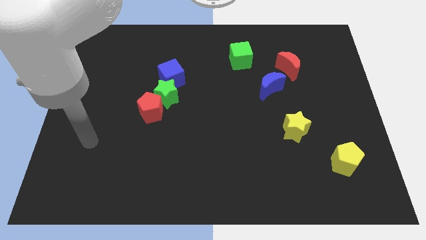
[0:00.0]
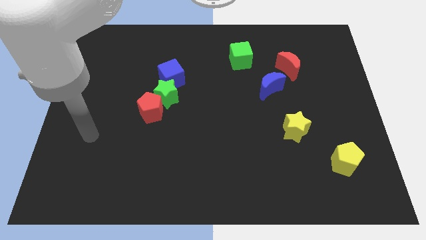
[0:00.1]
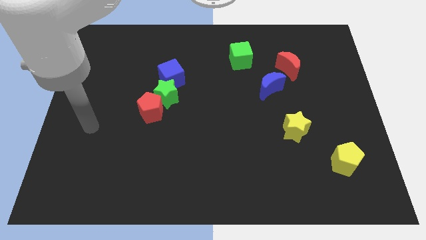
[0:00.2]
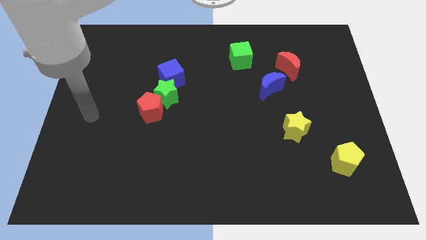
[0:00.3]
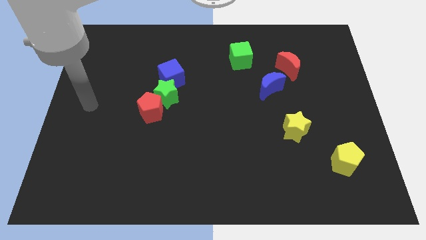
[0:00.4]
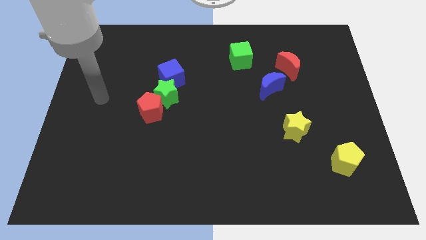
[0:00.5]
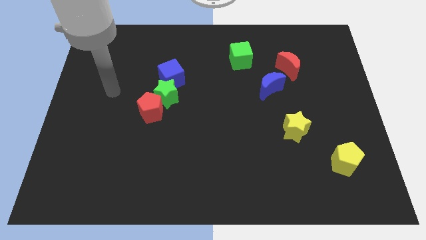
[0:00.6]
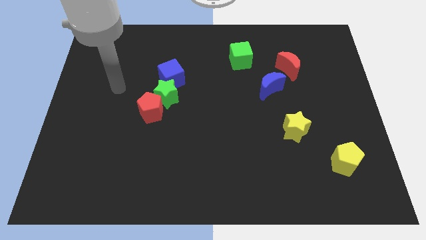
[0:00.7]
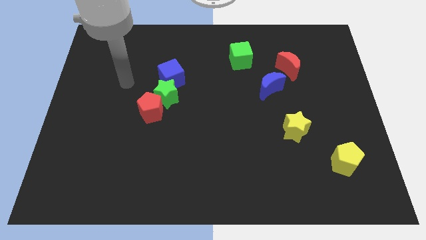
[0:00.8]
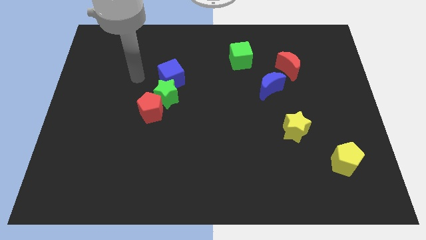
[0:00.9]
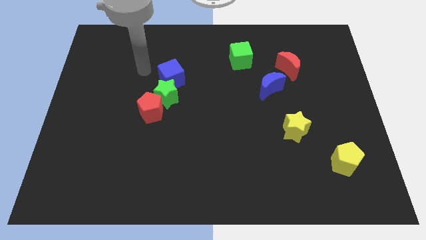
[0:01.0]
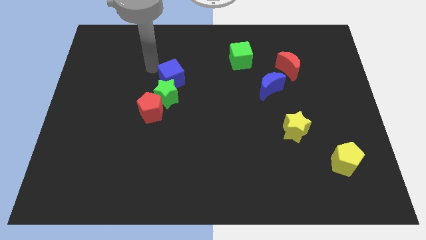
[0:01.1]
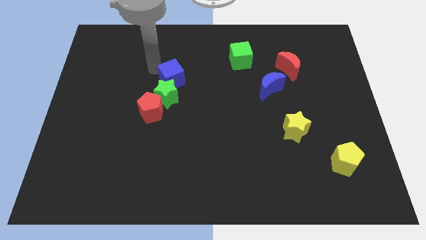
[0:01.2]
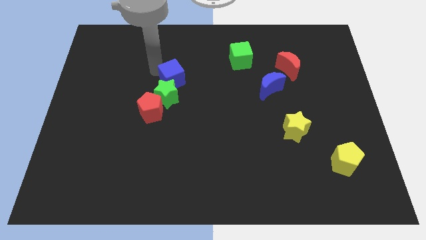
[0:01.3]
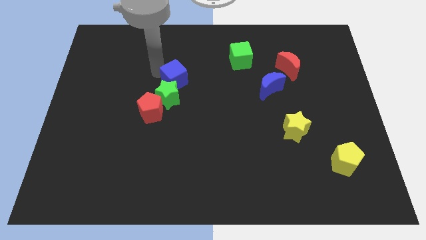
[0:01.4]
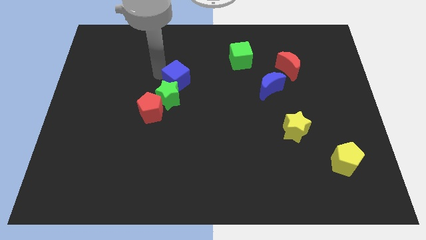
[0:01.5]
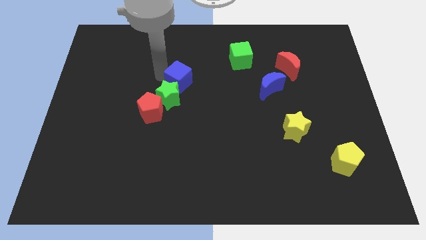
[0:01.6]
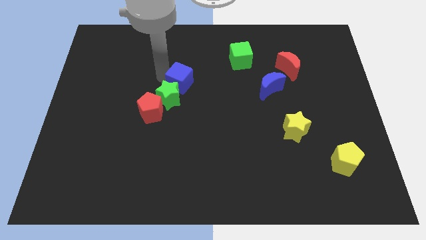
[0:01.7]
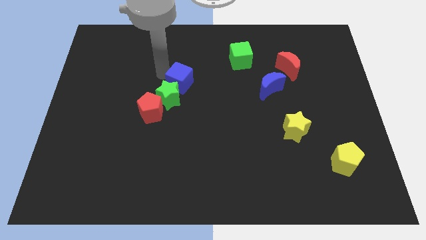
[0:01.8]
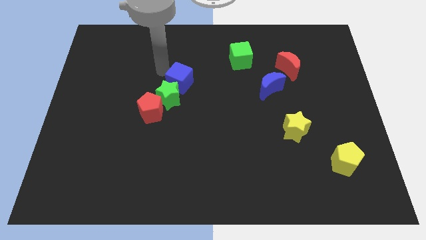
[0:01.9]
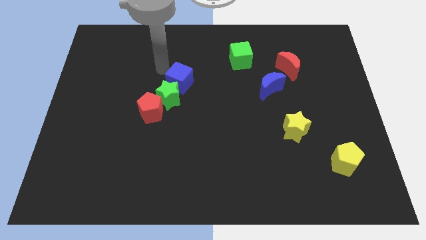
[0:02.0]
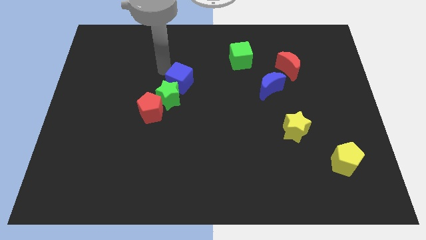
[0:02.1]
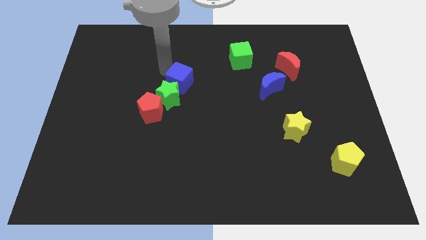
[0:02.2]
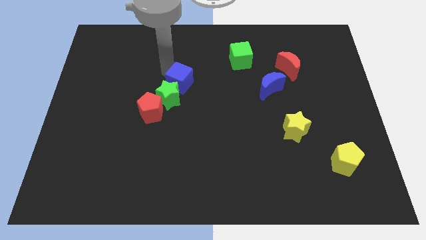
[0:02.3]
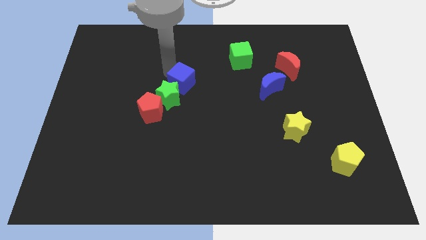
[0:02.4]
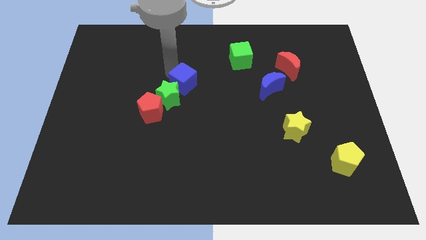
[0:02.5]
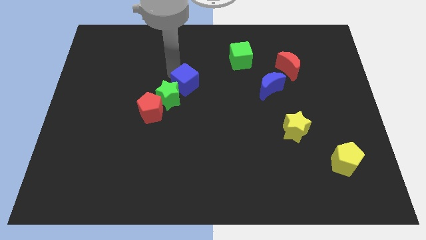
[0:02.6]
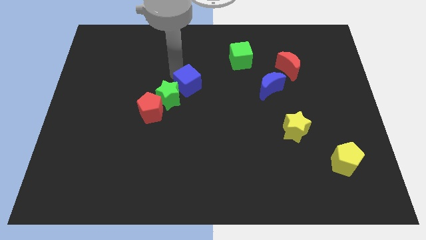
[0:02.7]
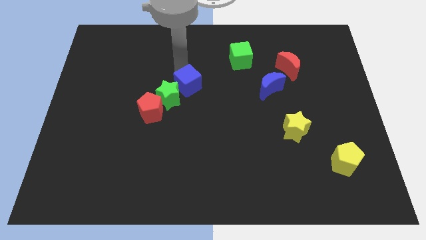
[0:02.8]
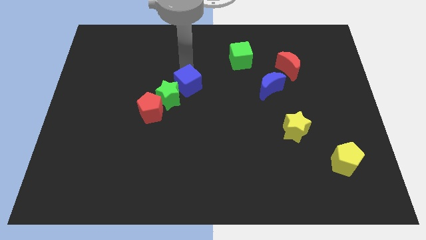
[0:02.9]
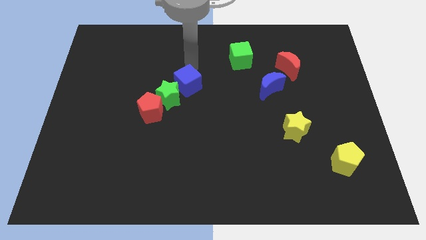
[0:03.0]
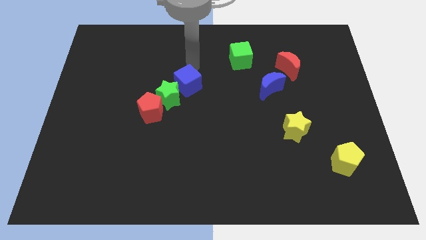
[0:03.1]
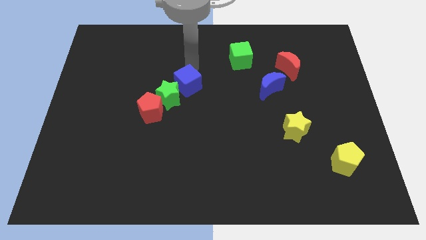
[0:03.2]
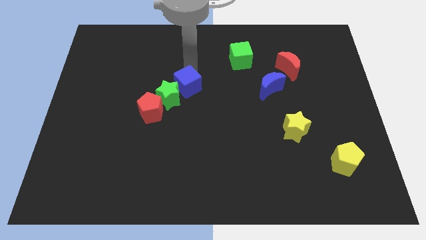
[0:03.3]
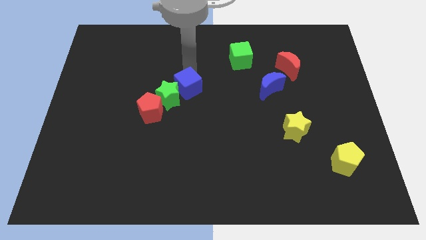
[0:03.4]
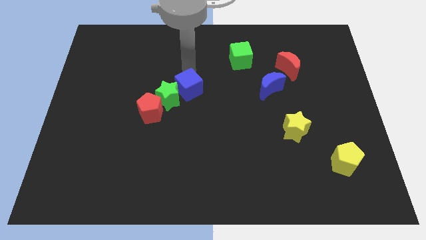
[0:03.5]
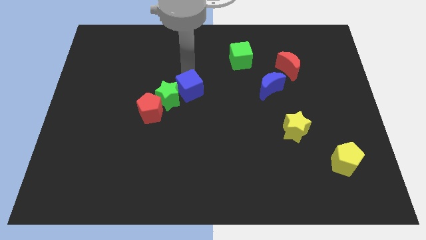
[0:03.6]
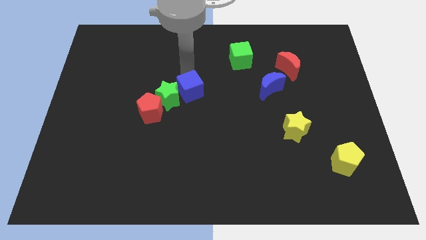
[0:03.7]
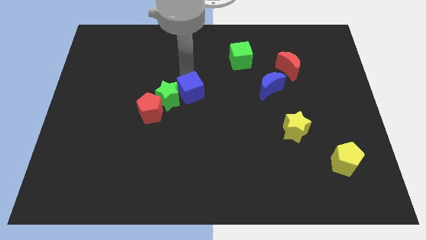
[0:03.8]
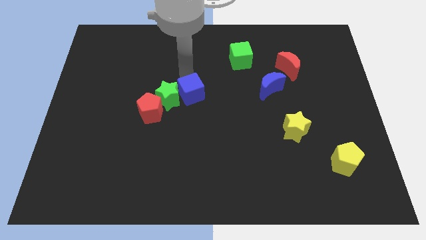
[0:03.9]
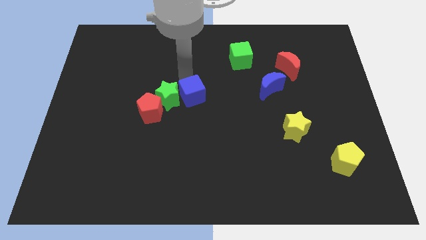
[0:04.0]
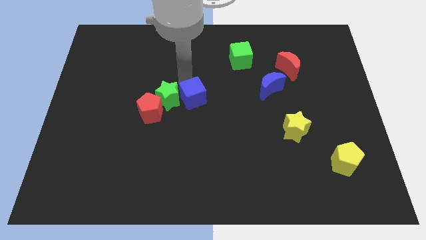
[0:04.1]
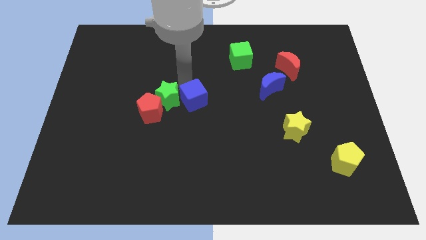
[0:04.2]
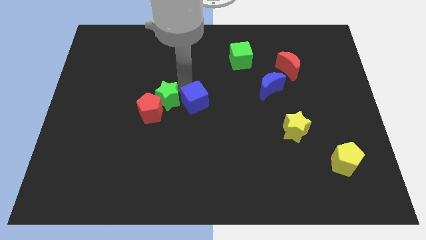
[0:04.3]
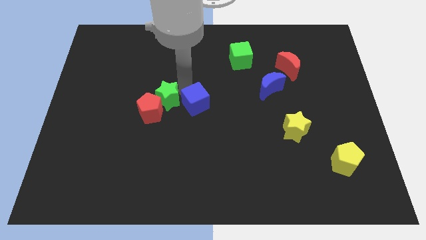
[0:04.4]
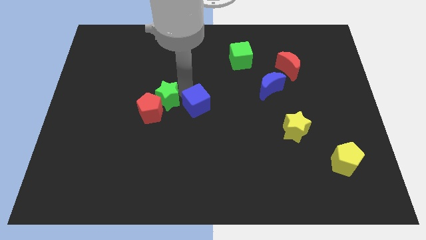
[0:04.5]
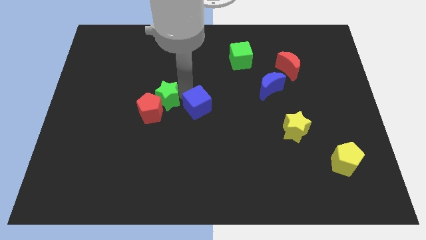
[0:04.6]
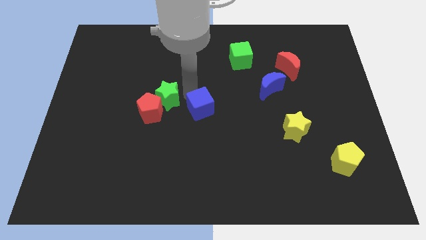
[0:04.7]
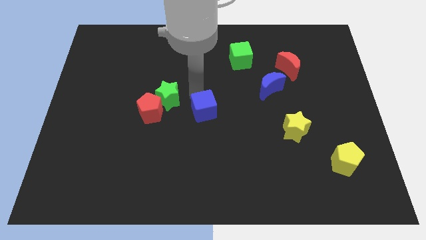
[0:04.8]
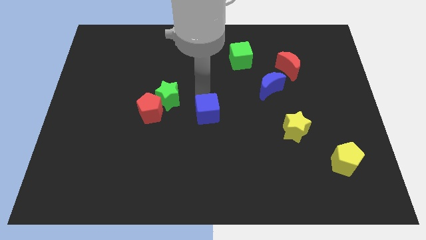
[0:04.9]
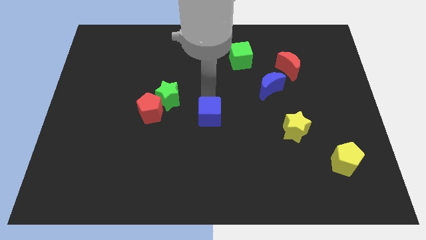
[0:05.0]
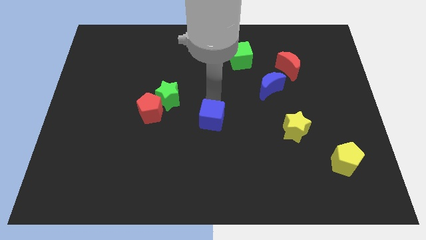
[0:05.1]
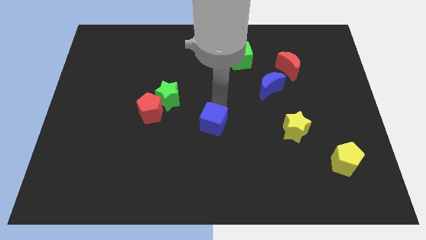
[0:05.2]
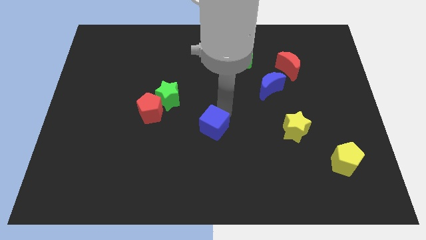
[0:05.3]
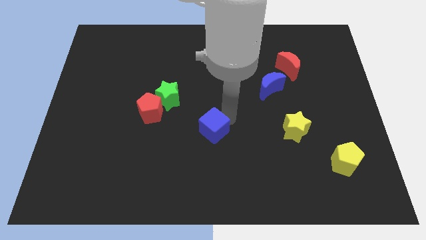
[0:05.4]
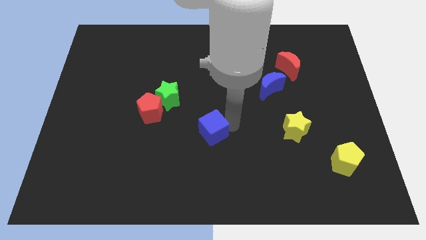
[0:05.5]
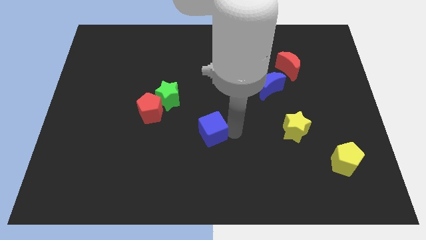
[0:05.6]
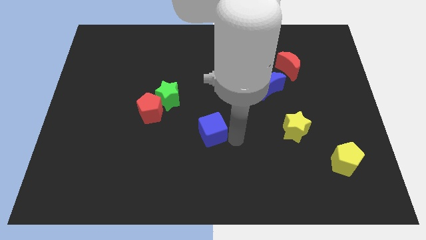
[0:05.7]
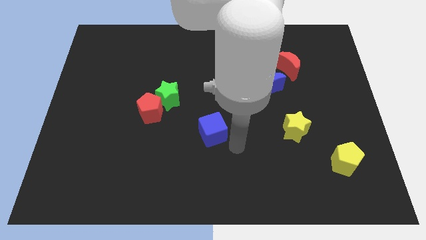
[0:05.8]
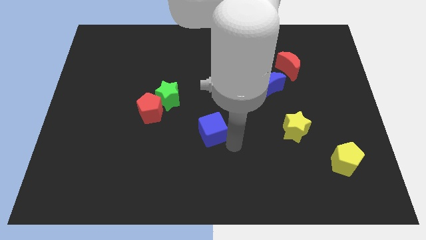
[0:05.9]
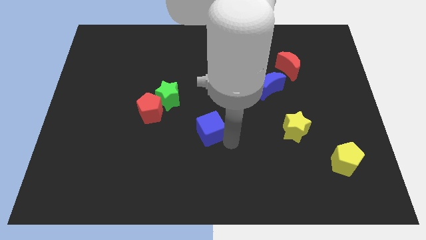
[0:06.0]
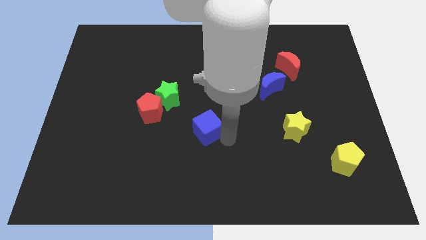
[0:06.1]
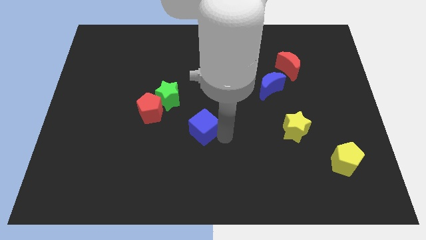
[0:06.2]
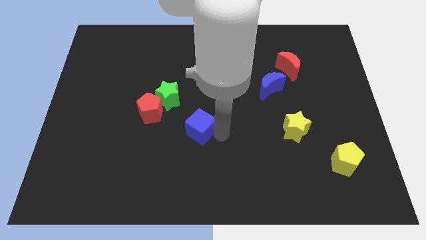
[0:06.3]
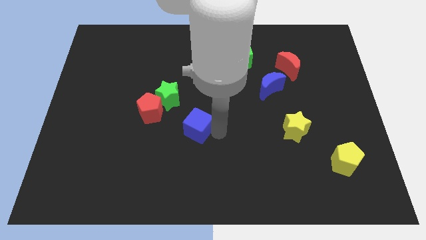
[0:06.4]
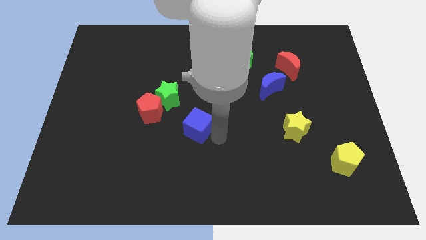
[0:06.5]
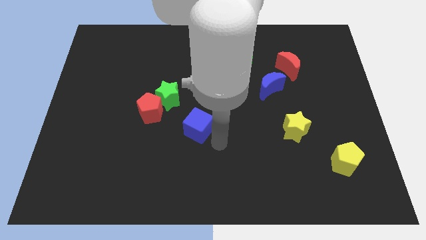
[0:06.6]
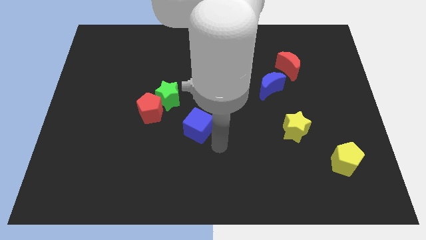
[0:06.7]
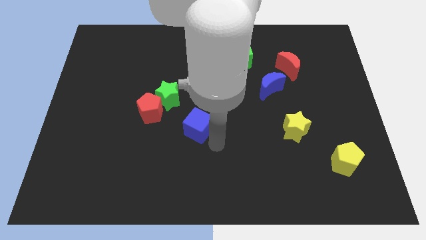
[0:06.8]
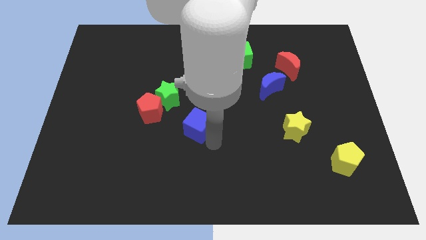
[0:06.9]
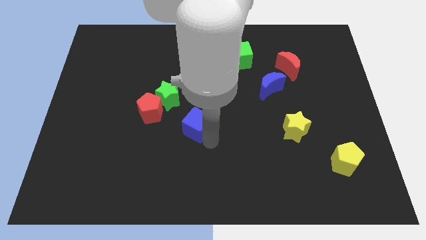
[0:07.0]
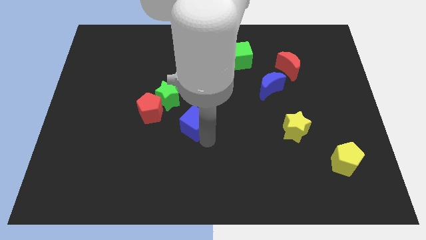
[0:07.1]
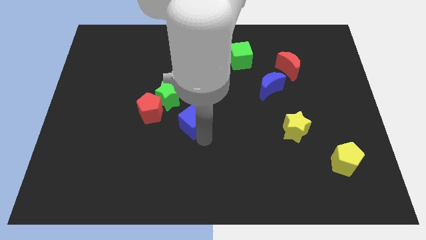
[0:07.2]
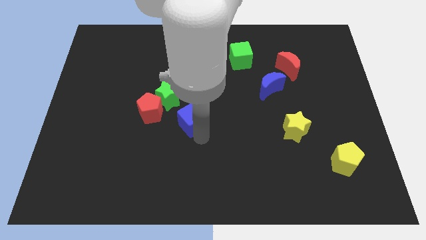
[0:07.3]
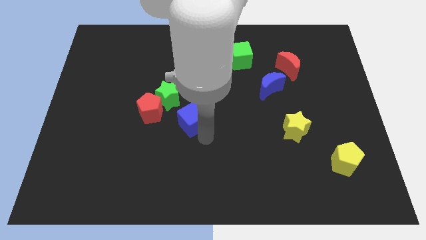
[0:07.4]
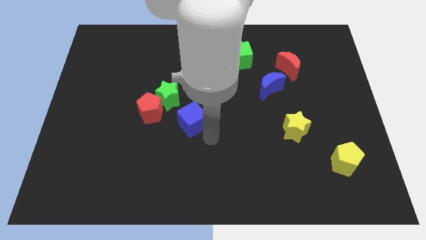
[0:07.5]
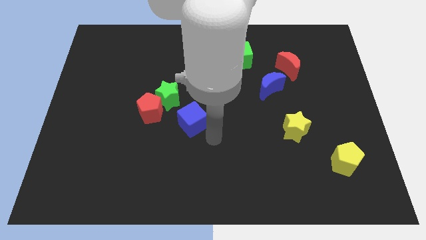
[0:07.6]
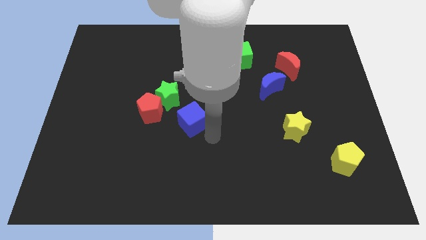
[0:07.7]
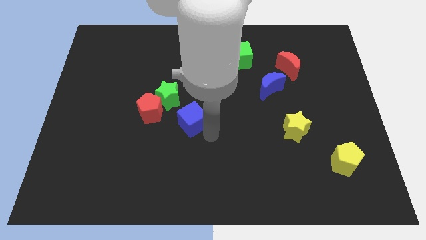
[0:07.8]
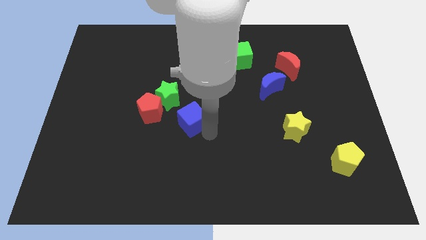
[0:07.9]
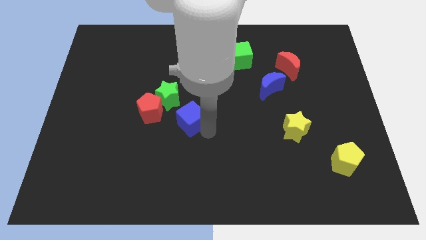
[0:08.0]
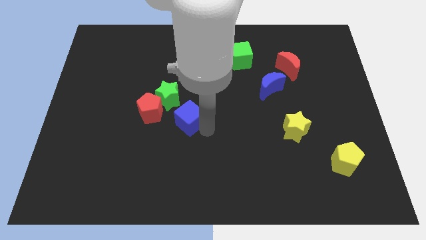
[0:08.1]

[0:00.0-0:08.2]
move the blue cube to the bottom of the green star
